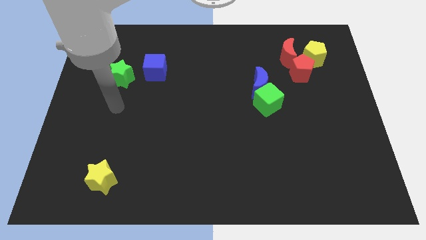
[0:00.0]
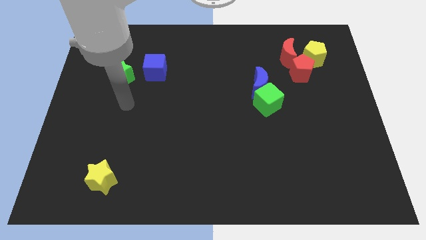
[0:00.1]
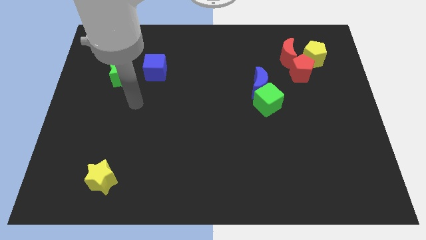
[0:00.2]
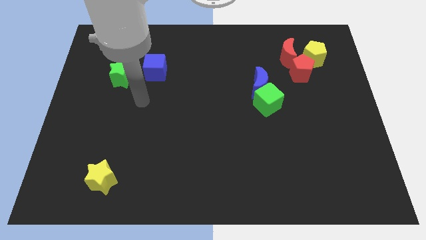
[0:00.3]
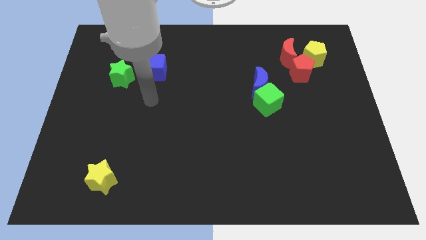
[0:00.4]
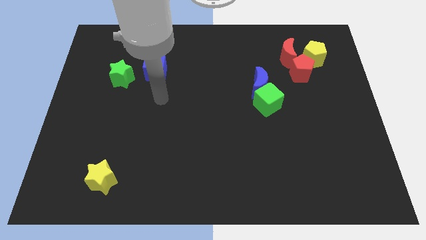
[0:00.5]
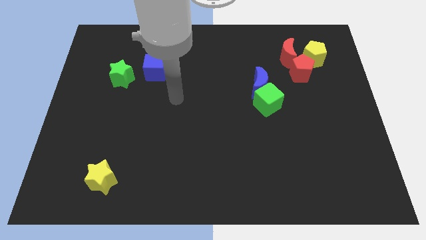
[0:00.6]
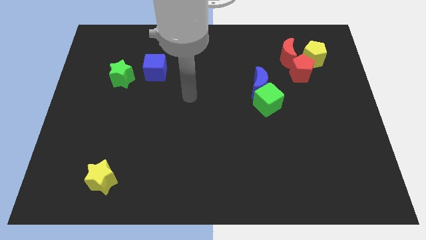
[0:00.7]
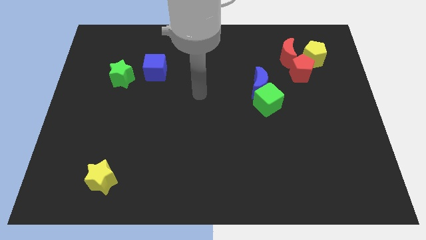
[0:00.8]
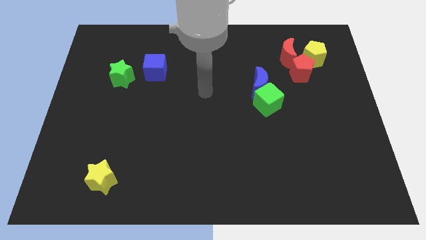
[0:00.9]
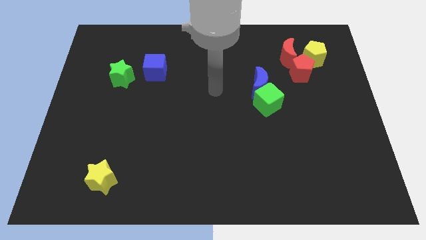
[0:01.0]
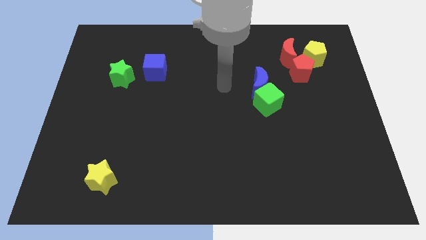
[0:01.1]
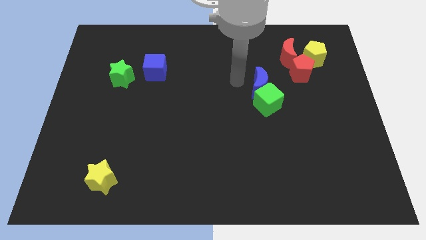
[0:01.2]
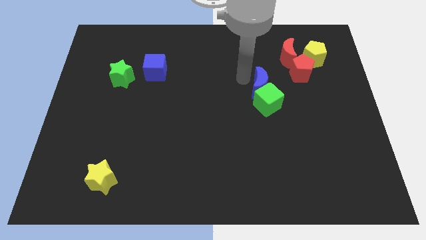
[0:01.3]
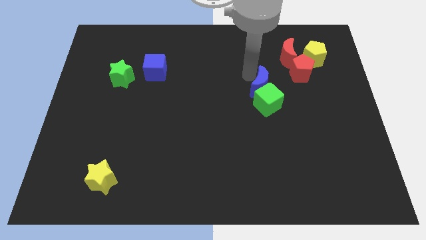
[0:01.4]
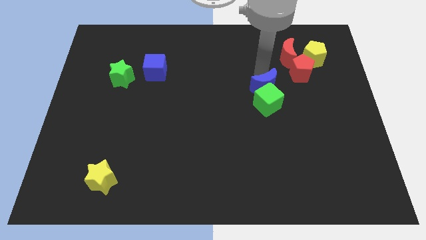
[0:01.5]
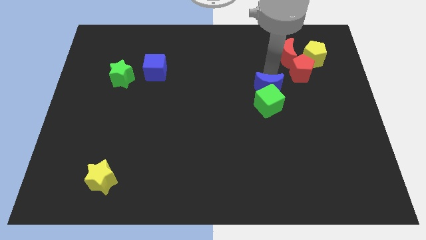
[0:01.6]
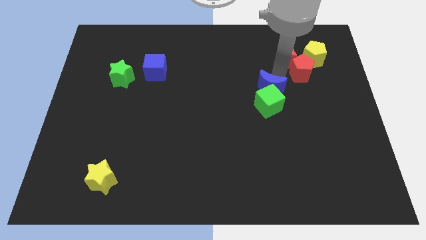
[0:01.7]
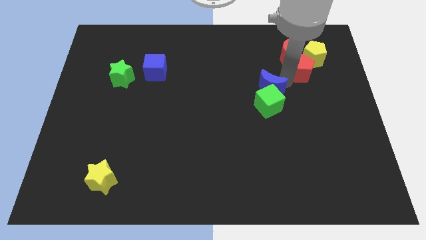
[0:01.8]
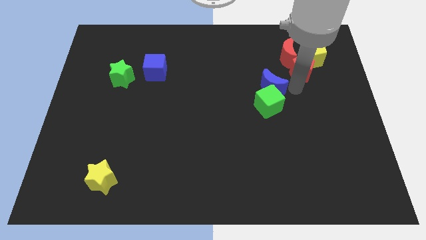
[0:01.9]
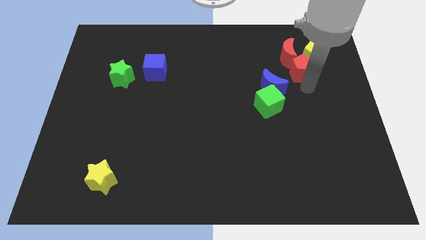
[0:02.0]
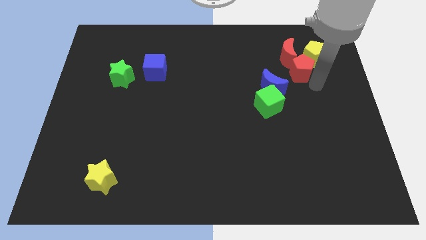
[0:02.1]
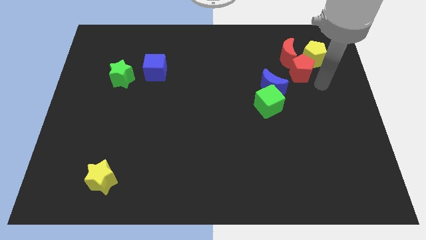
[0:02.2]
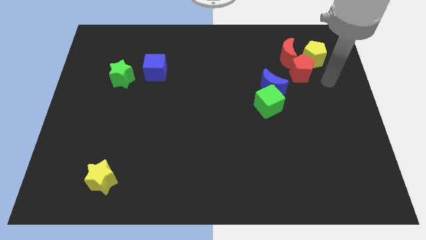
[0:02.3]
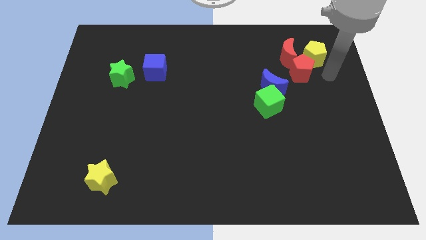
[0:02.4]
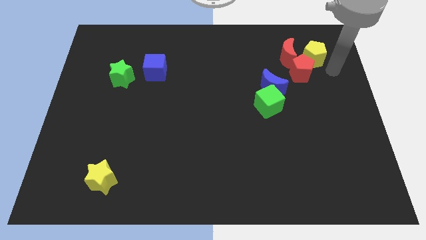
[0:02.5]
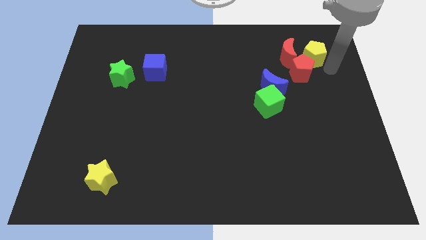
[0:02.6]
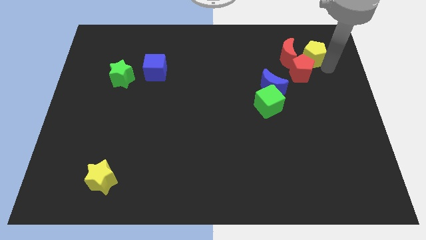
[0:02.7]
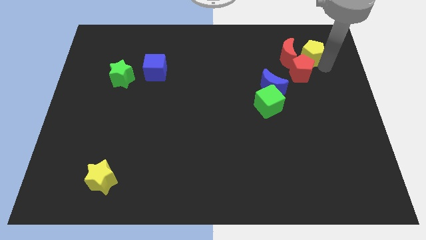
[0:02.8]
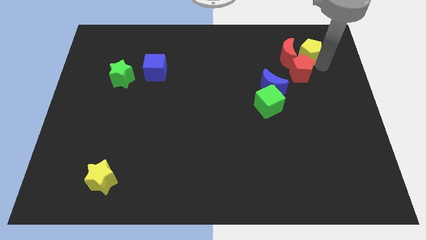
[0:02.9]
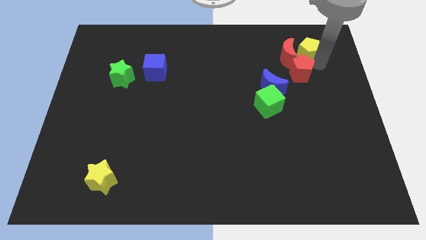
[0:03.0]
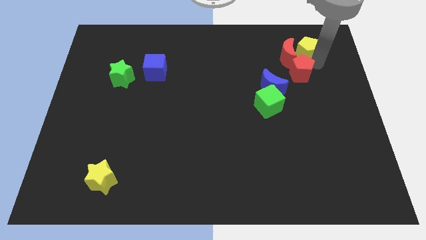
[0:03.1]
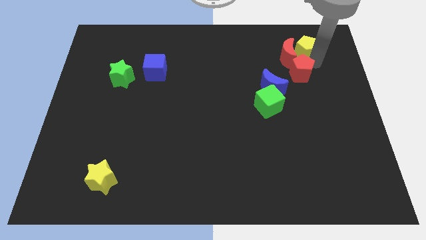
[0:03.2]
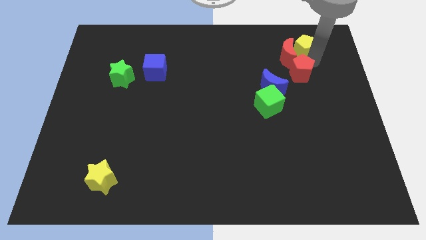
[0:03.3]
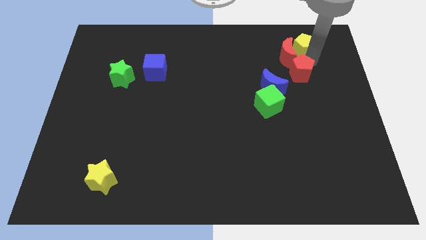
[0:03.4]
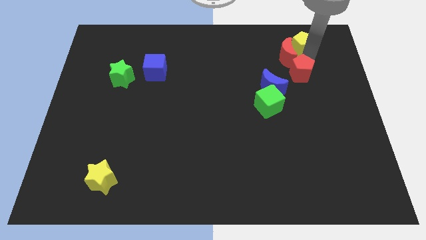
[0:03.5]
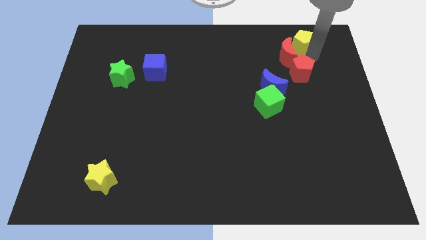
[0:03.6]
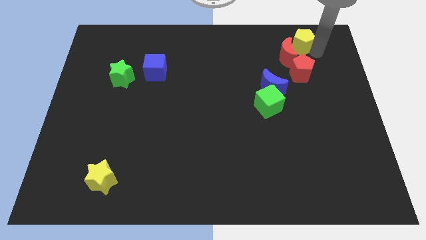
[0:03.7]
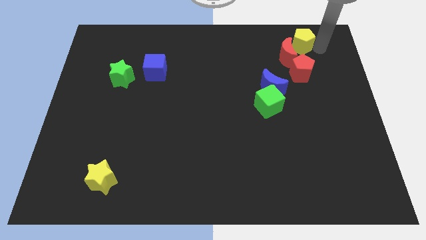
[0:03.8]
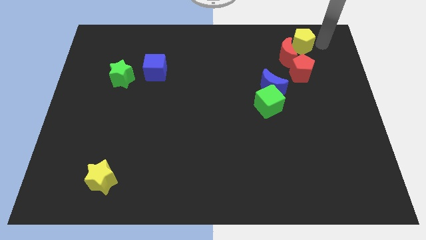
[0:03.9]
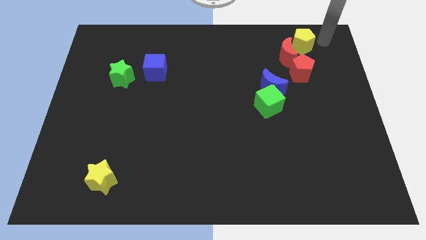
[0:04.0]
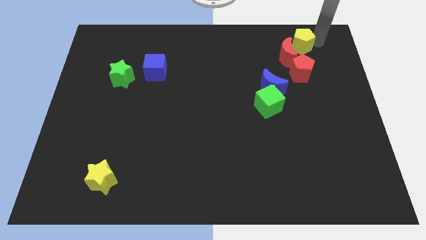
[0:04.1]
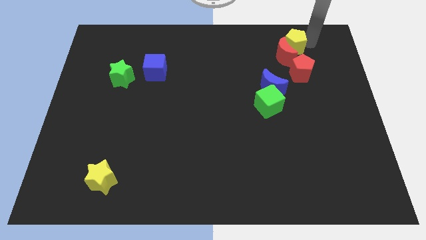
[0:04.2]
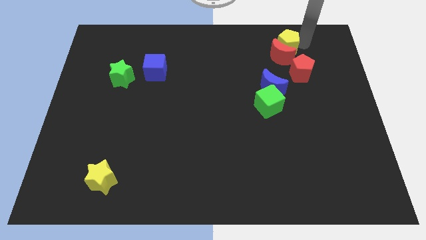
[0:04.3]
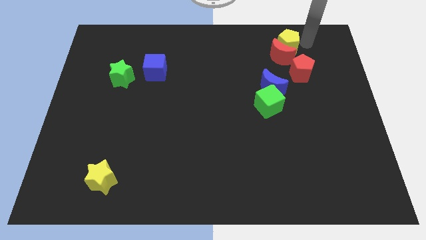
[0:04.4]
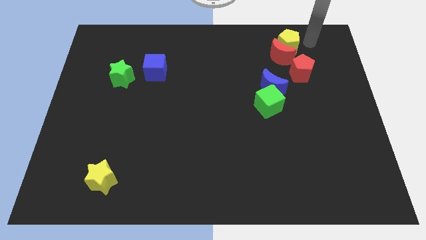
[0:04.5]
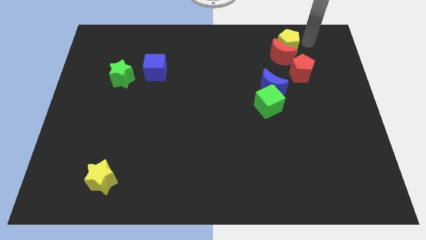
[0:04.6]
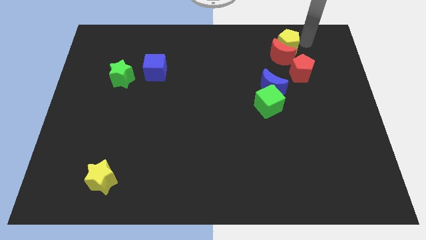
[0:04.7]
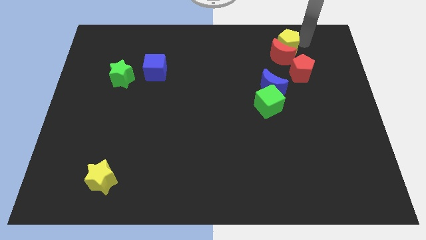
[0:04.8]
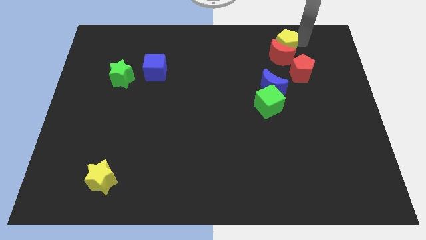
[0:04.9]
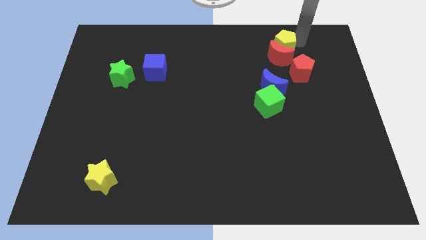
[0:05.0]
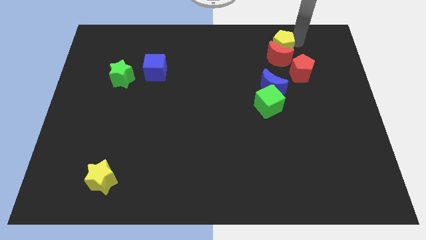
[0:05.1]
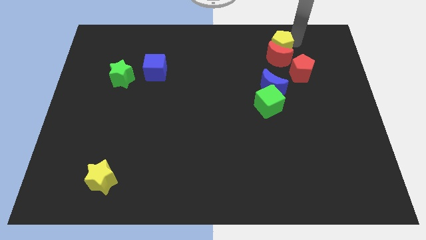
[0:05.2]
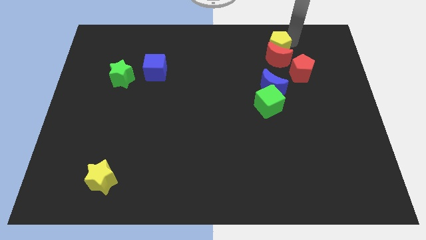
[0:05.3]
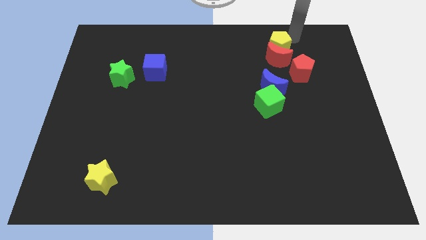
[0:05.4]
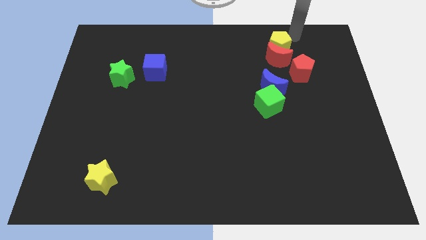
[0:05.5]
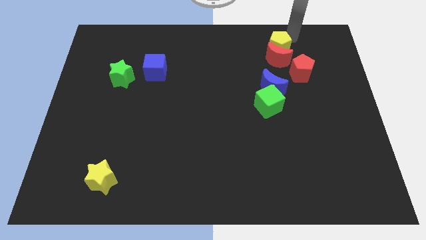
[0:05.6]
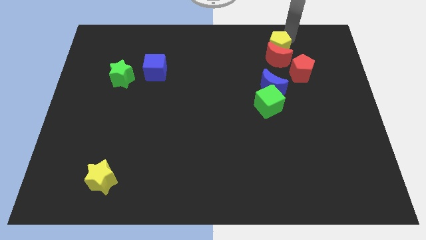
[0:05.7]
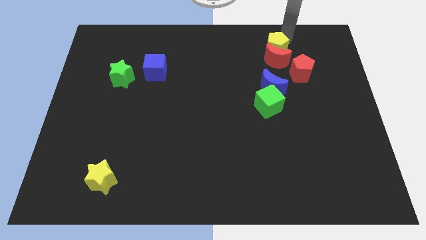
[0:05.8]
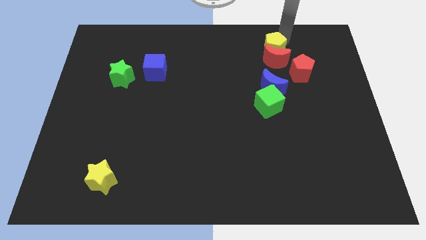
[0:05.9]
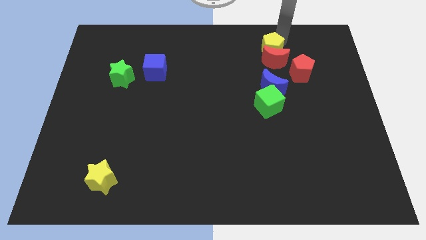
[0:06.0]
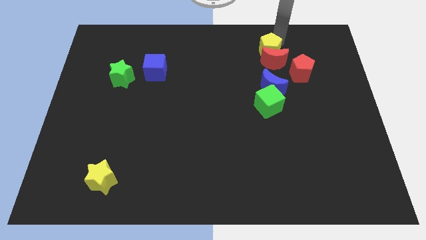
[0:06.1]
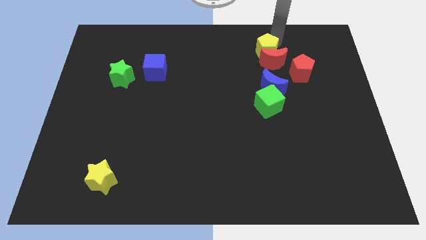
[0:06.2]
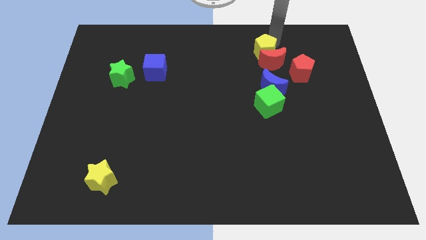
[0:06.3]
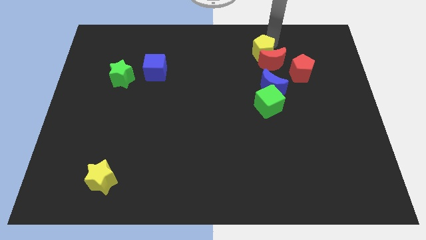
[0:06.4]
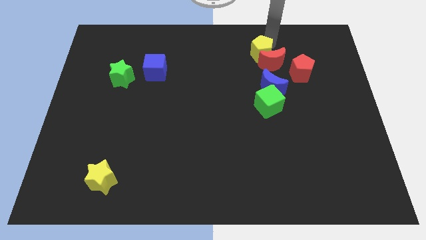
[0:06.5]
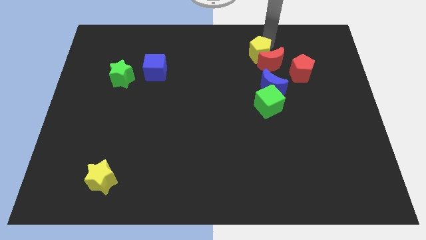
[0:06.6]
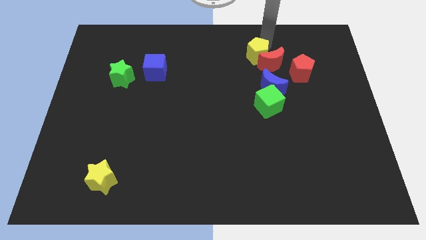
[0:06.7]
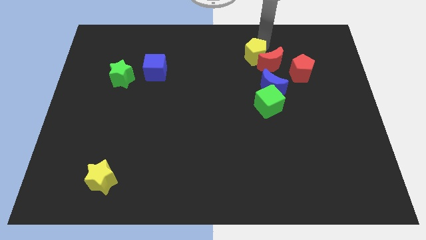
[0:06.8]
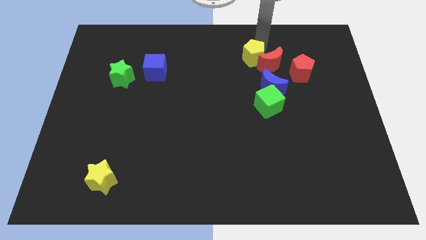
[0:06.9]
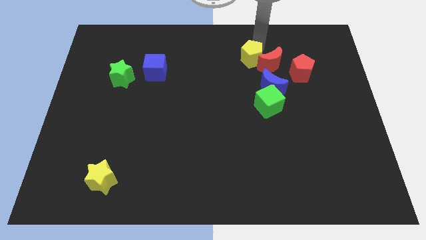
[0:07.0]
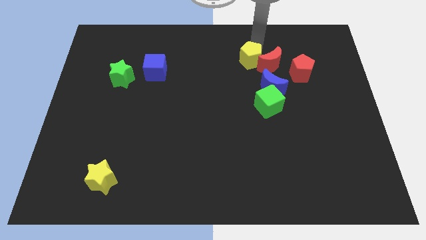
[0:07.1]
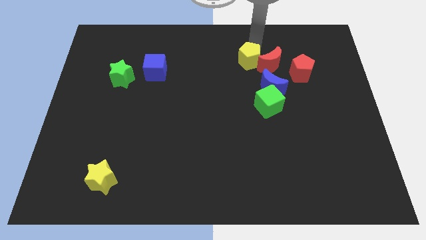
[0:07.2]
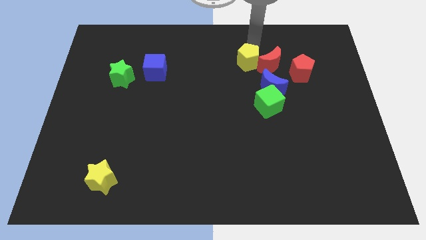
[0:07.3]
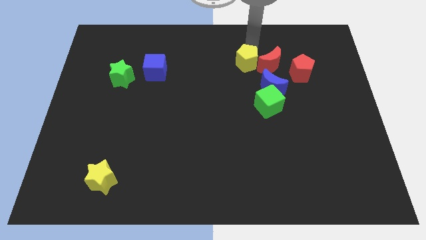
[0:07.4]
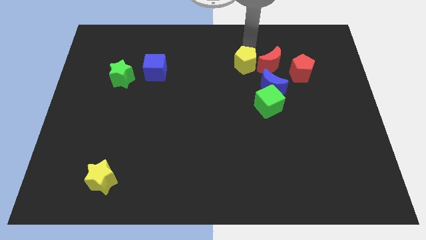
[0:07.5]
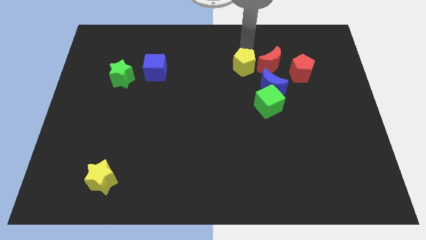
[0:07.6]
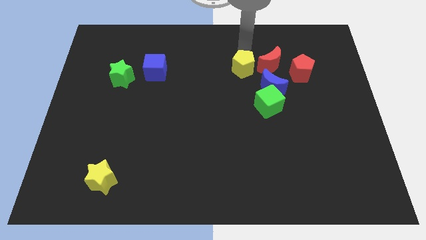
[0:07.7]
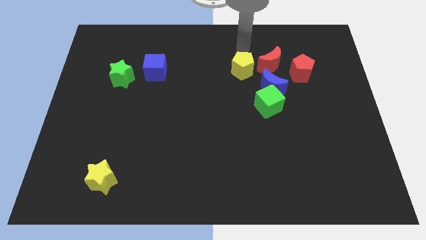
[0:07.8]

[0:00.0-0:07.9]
move the yellow pentagon to the middle of the board
